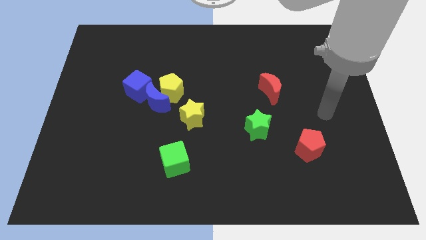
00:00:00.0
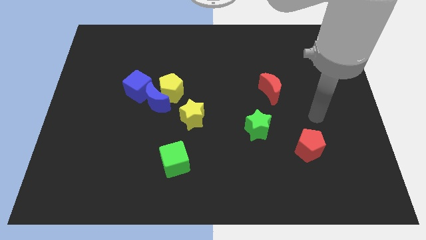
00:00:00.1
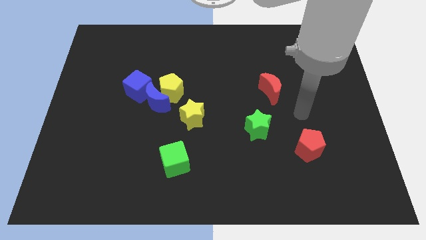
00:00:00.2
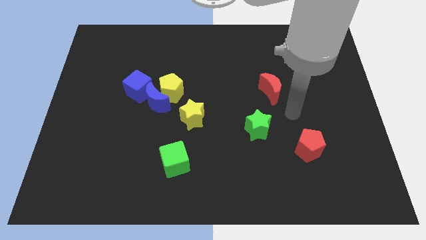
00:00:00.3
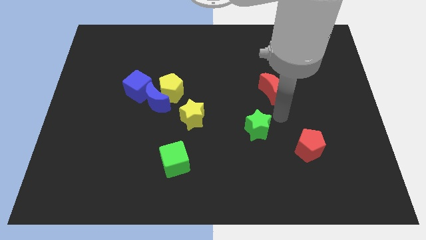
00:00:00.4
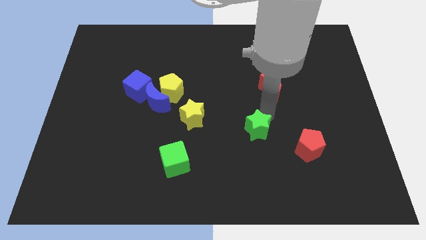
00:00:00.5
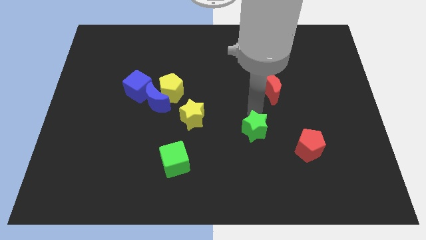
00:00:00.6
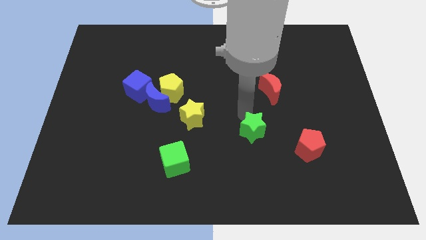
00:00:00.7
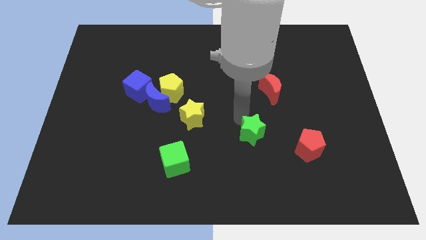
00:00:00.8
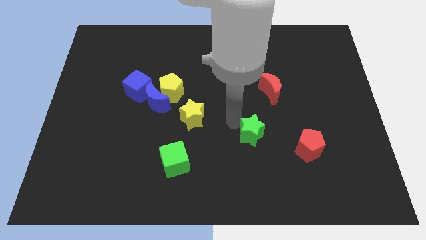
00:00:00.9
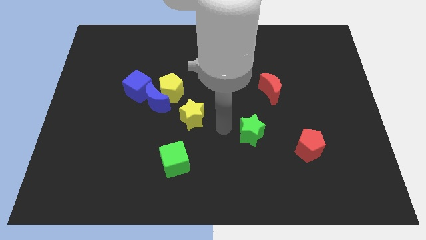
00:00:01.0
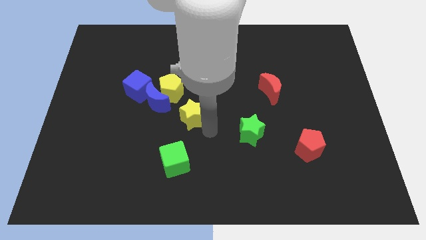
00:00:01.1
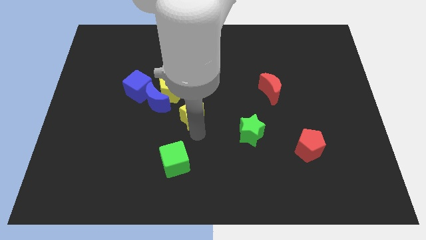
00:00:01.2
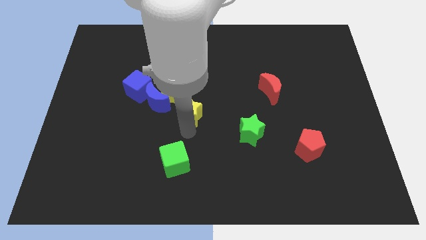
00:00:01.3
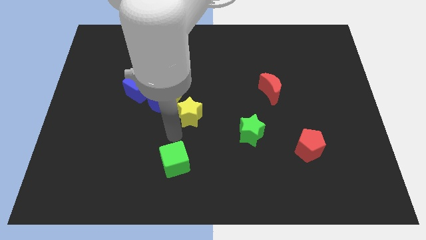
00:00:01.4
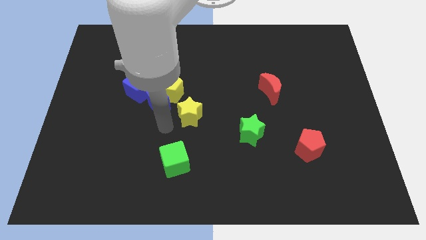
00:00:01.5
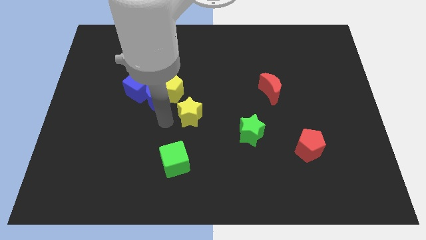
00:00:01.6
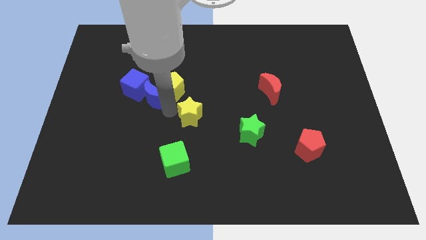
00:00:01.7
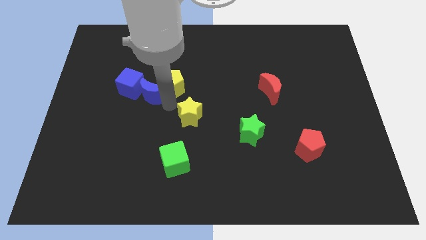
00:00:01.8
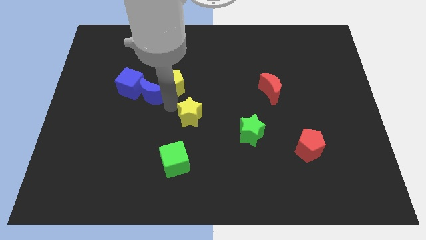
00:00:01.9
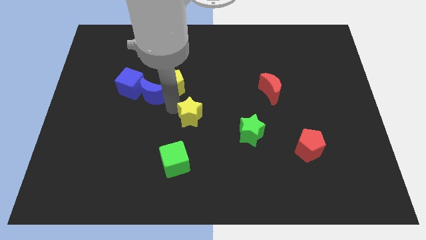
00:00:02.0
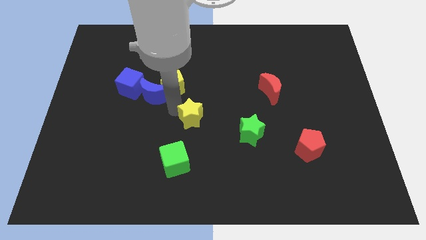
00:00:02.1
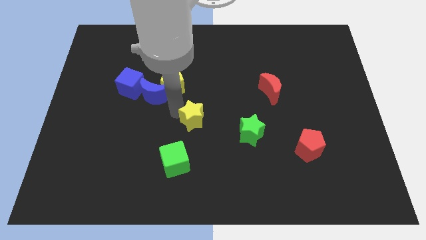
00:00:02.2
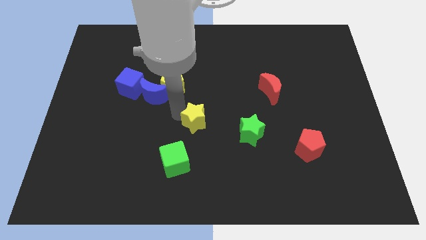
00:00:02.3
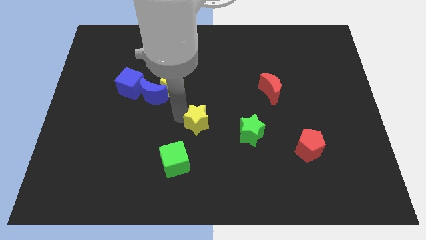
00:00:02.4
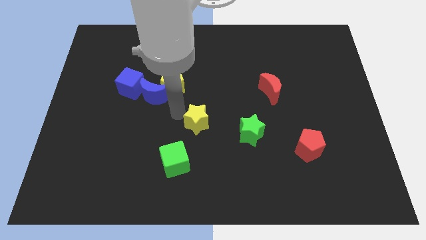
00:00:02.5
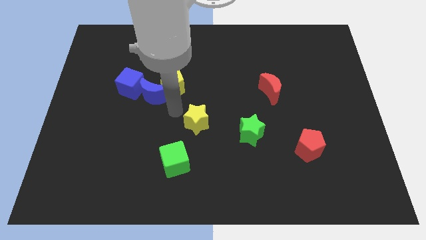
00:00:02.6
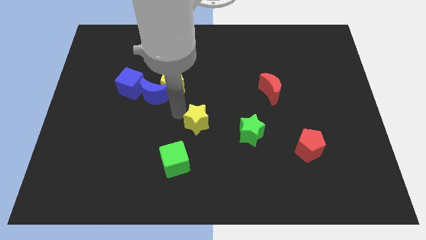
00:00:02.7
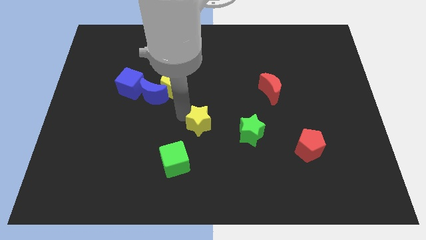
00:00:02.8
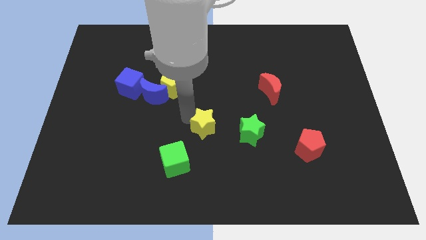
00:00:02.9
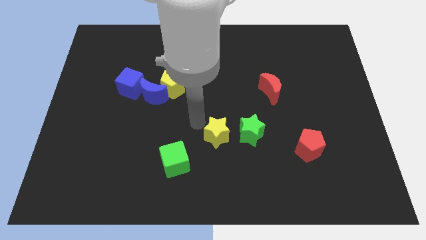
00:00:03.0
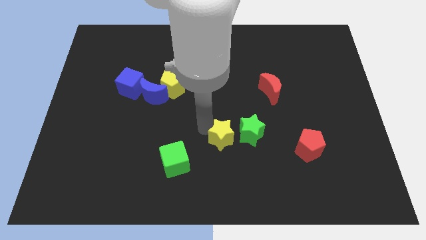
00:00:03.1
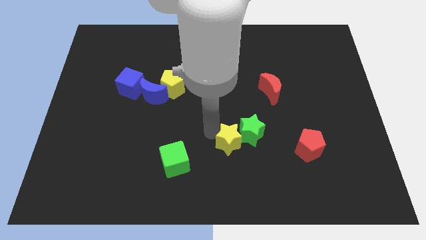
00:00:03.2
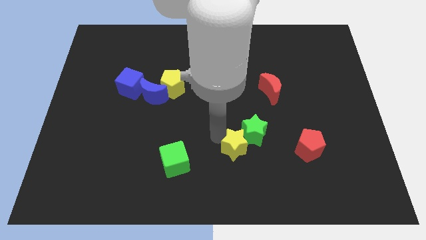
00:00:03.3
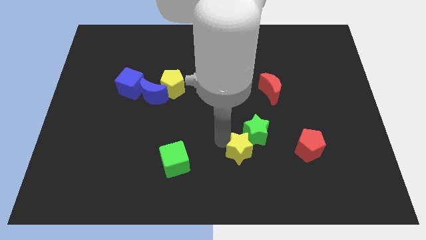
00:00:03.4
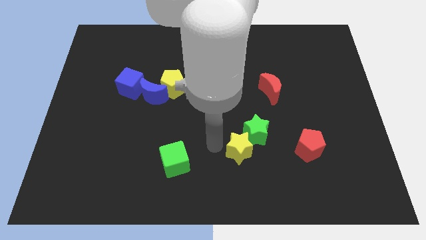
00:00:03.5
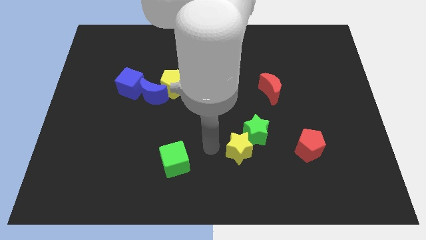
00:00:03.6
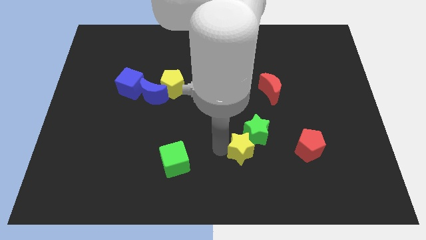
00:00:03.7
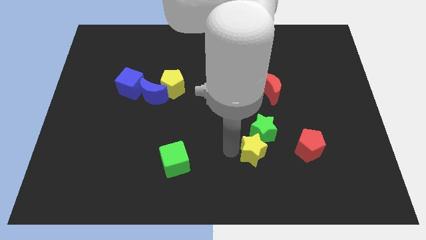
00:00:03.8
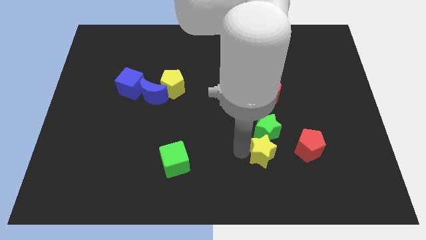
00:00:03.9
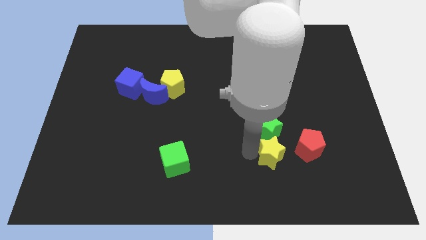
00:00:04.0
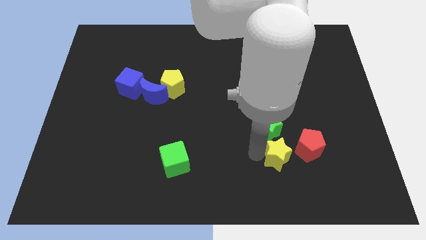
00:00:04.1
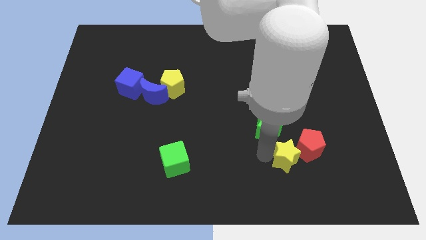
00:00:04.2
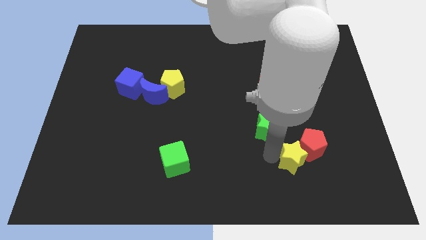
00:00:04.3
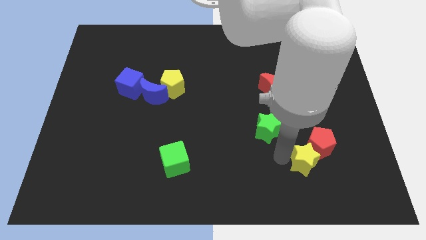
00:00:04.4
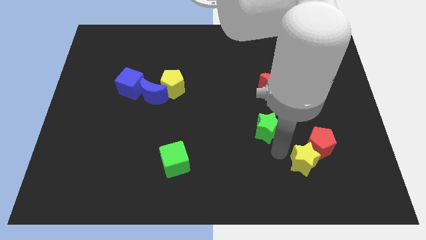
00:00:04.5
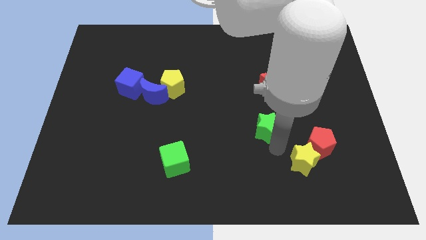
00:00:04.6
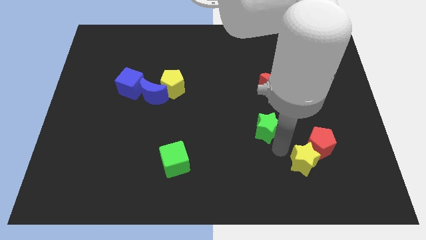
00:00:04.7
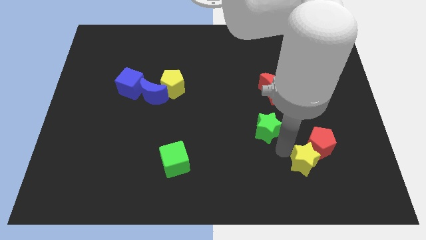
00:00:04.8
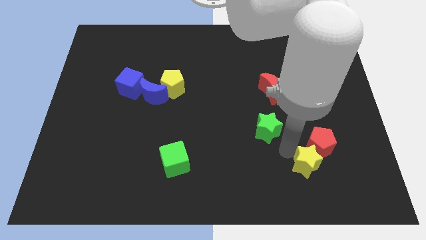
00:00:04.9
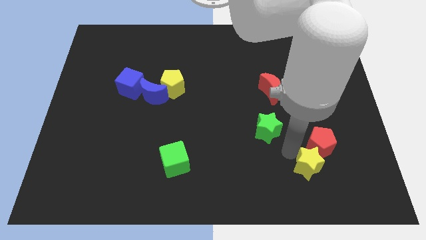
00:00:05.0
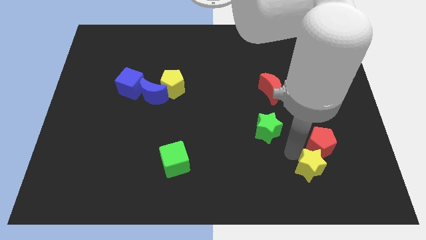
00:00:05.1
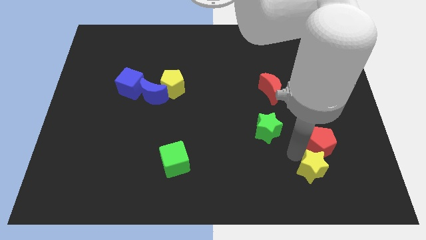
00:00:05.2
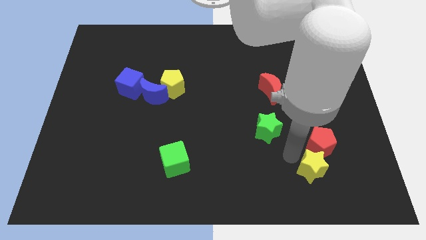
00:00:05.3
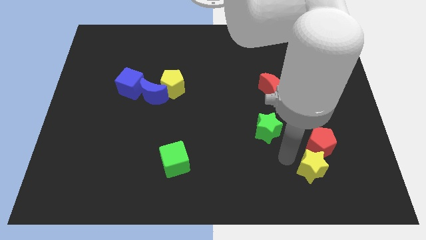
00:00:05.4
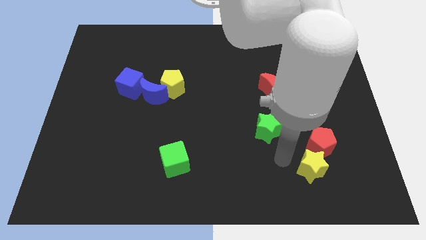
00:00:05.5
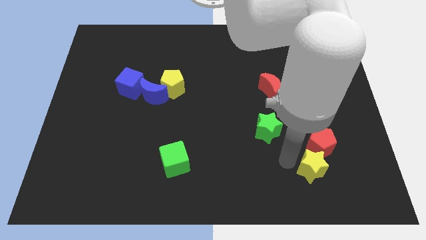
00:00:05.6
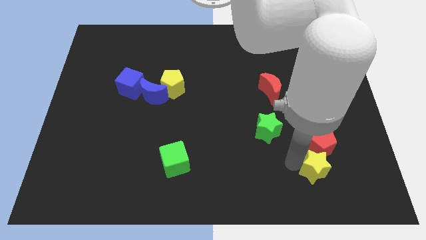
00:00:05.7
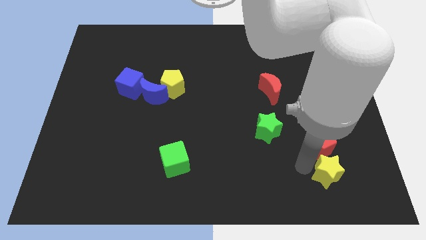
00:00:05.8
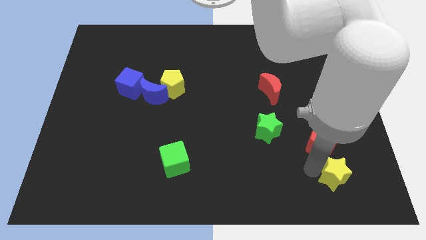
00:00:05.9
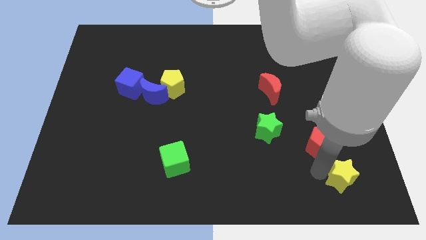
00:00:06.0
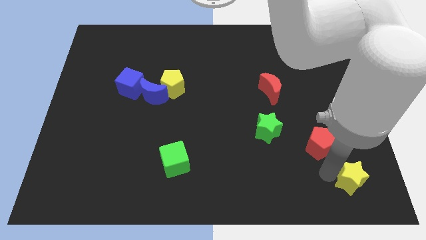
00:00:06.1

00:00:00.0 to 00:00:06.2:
slide the yellow star to the bottom right corner
